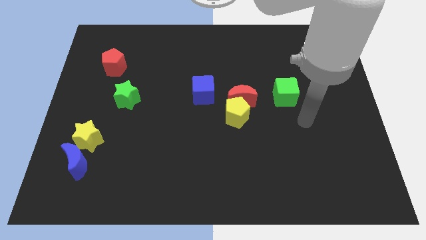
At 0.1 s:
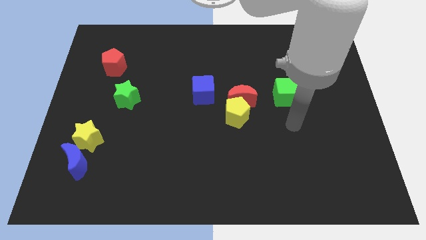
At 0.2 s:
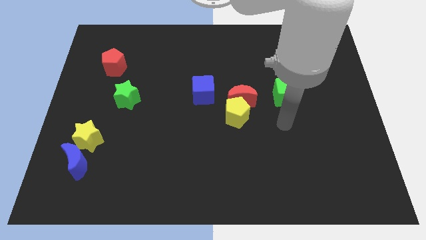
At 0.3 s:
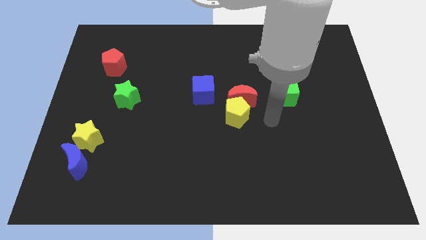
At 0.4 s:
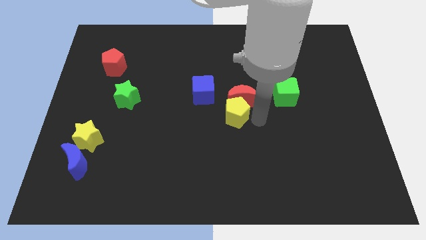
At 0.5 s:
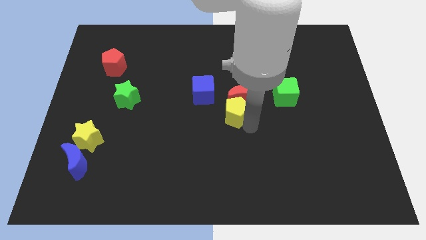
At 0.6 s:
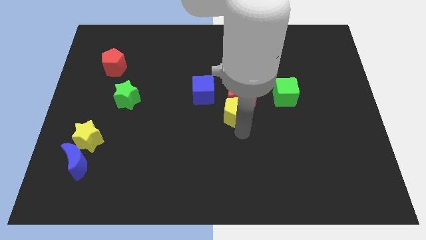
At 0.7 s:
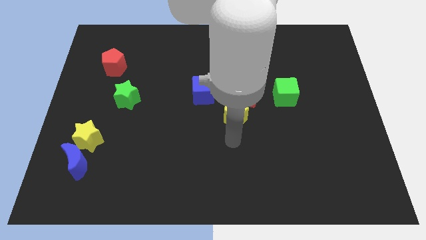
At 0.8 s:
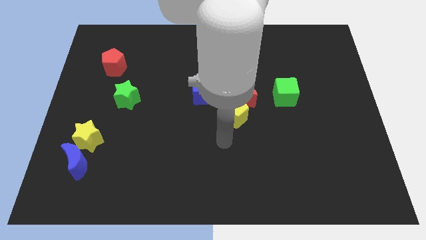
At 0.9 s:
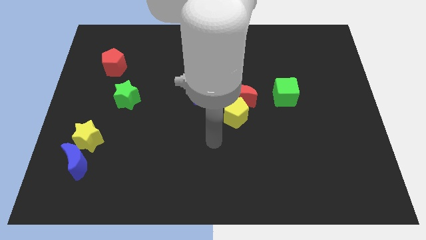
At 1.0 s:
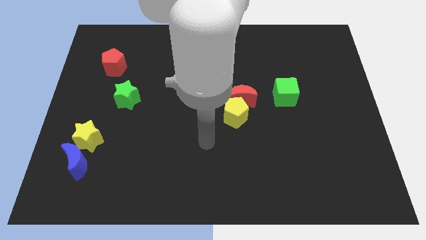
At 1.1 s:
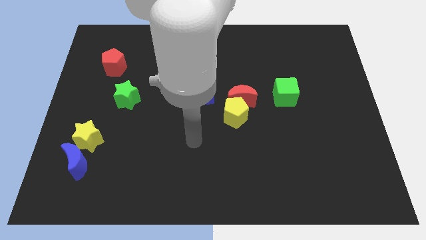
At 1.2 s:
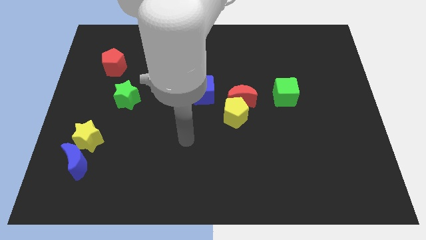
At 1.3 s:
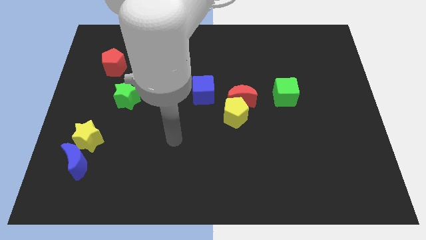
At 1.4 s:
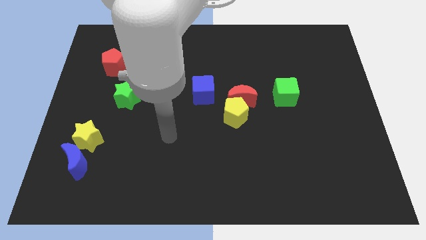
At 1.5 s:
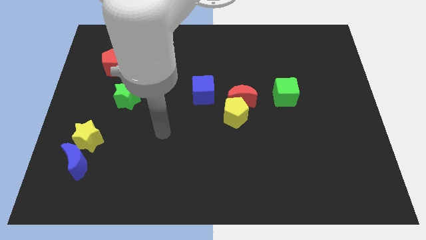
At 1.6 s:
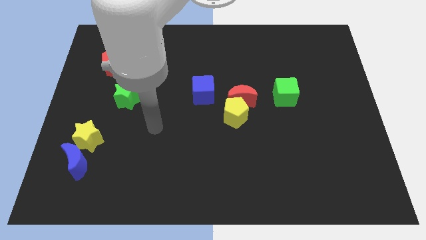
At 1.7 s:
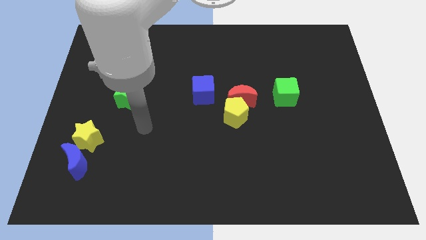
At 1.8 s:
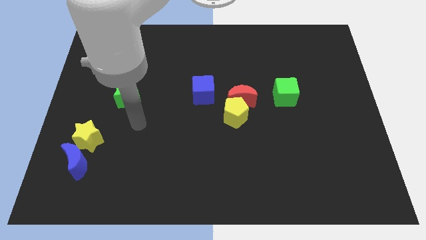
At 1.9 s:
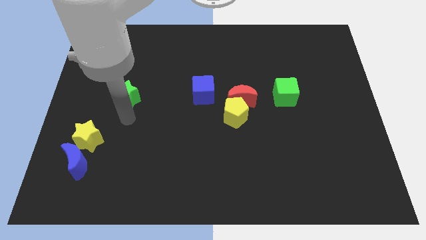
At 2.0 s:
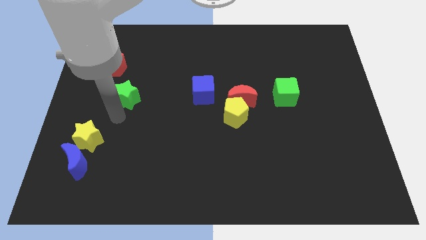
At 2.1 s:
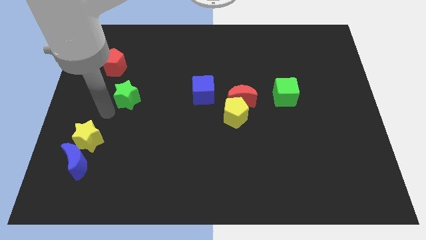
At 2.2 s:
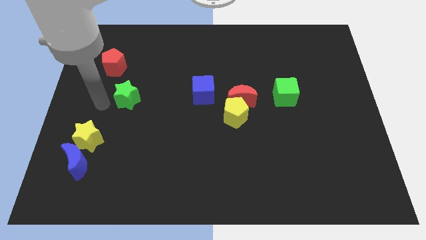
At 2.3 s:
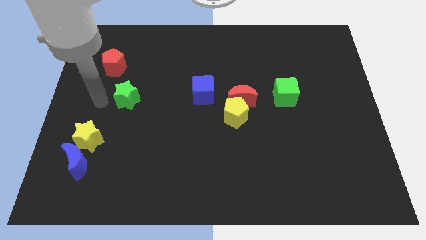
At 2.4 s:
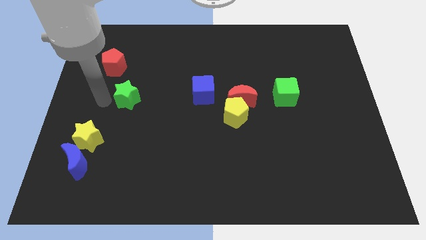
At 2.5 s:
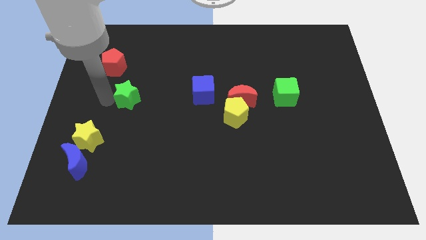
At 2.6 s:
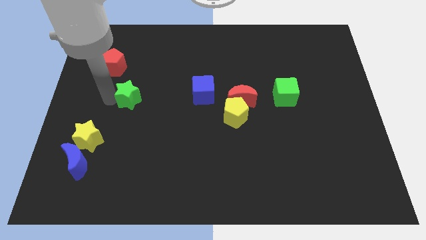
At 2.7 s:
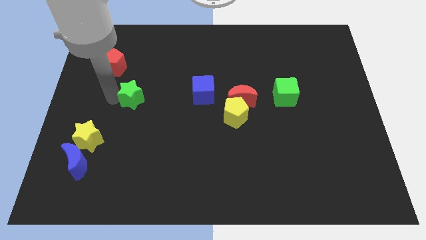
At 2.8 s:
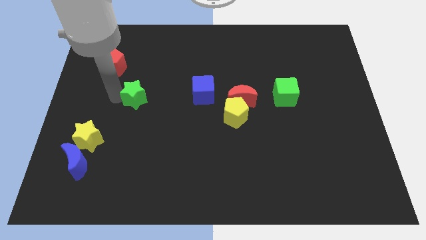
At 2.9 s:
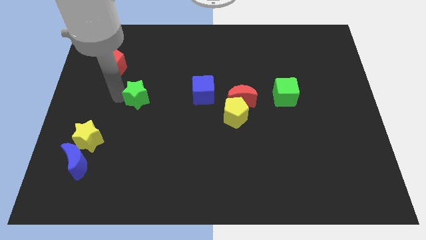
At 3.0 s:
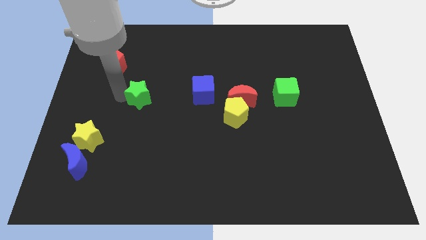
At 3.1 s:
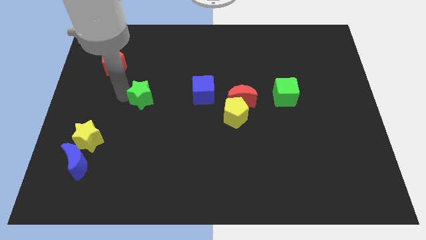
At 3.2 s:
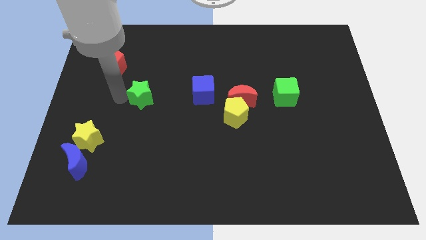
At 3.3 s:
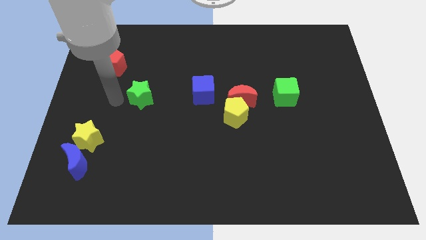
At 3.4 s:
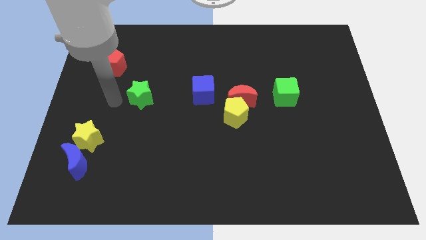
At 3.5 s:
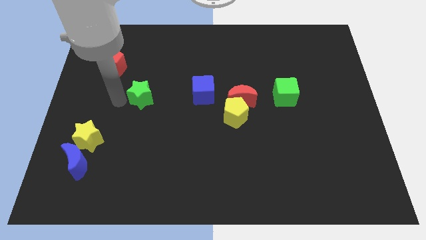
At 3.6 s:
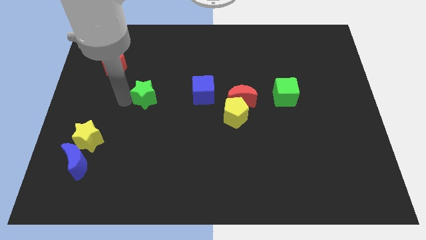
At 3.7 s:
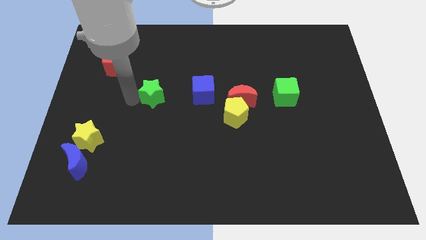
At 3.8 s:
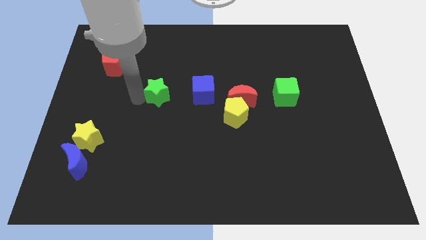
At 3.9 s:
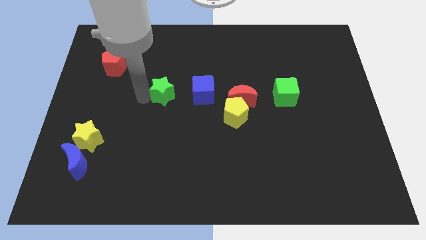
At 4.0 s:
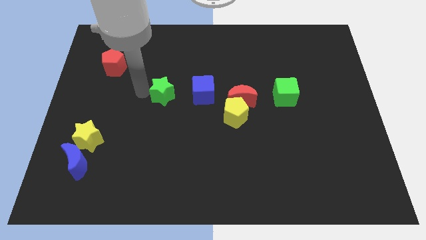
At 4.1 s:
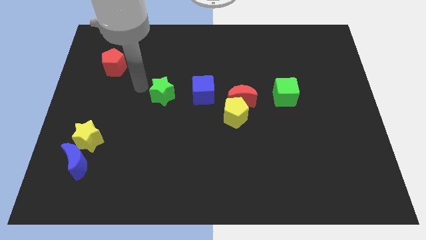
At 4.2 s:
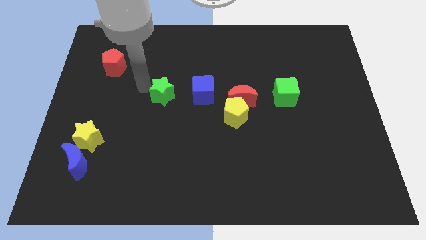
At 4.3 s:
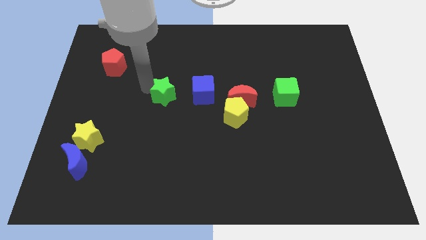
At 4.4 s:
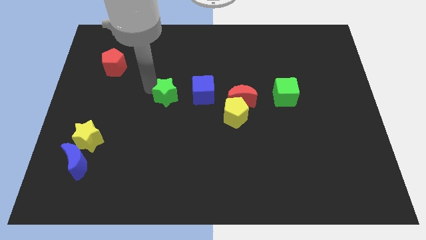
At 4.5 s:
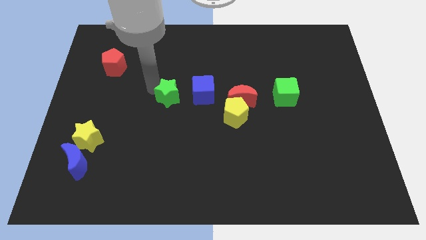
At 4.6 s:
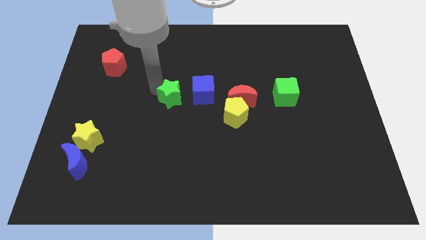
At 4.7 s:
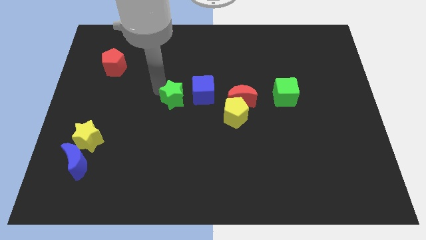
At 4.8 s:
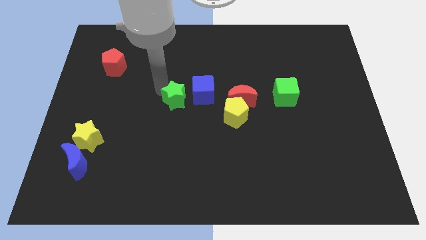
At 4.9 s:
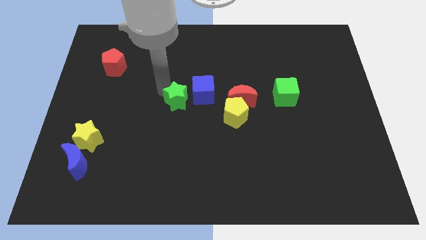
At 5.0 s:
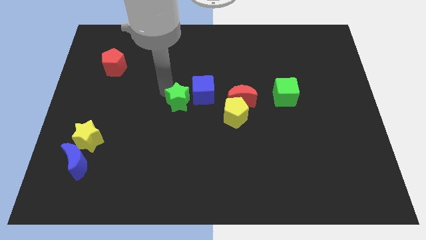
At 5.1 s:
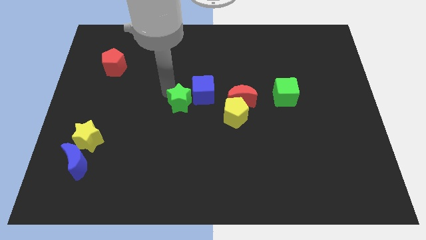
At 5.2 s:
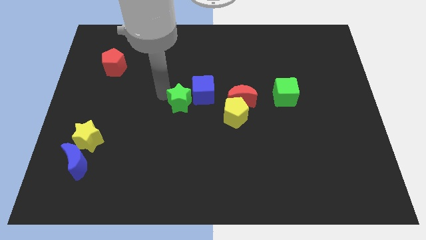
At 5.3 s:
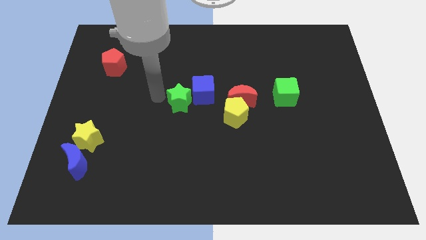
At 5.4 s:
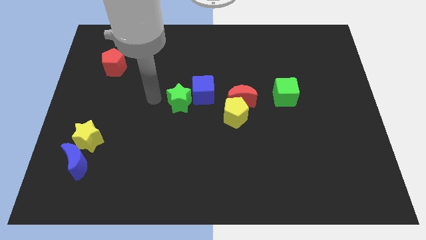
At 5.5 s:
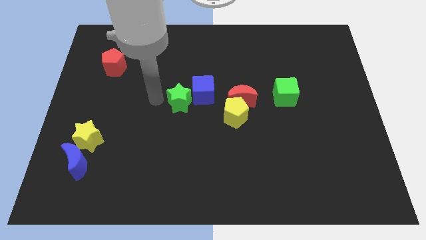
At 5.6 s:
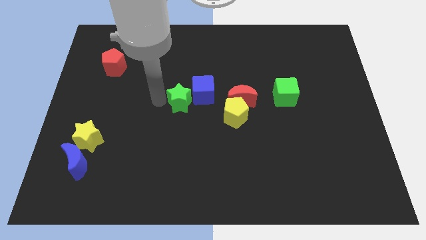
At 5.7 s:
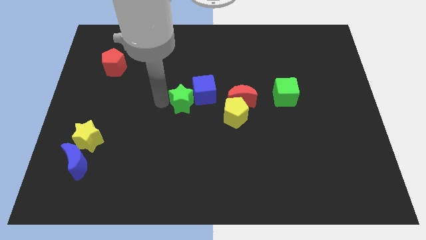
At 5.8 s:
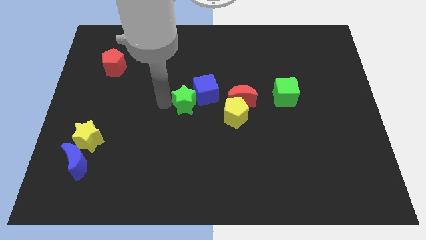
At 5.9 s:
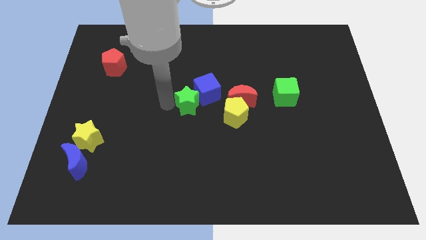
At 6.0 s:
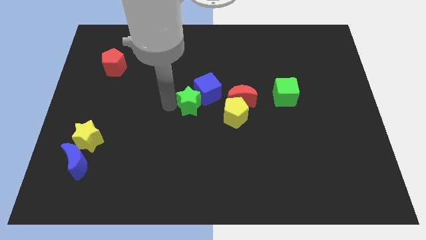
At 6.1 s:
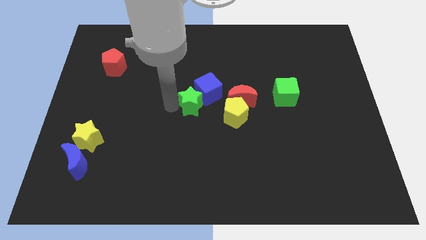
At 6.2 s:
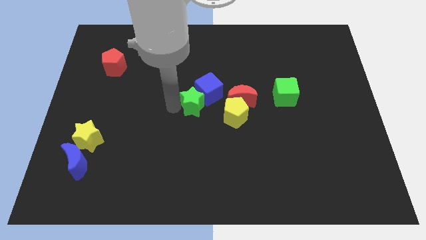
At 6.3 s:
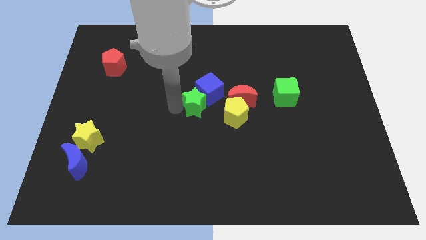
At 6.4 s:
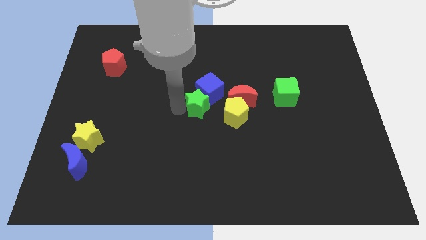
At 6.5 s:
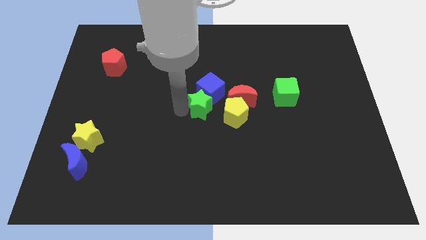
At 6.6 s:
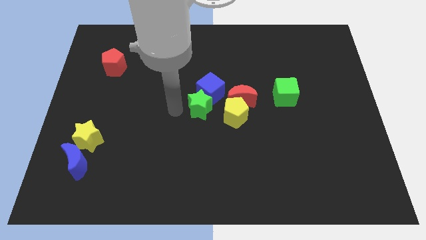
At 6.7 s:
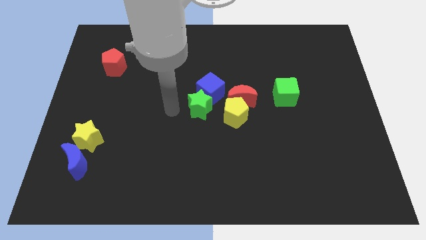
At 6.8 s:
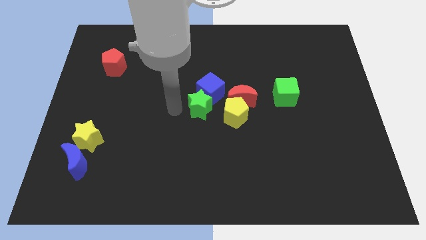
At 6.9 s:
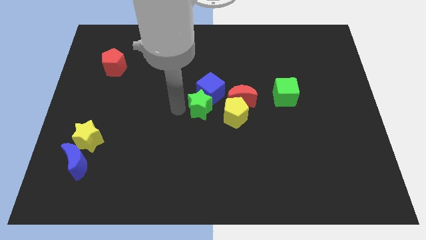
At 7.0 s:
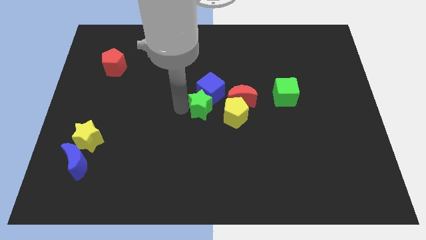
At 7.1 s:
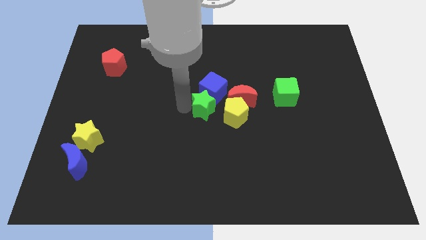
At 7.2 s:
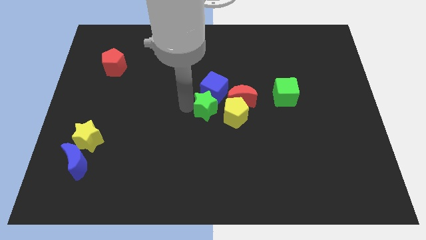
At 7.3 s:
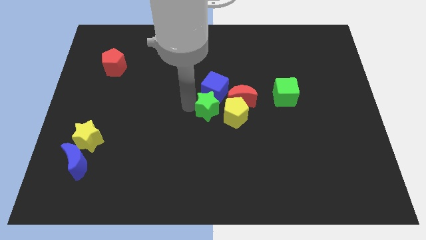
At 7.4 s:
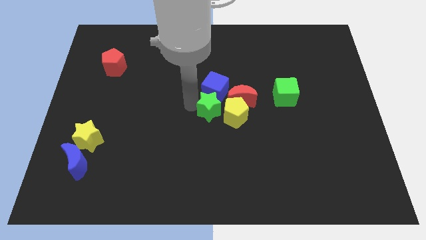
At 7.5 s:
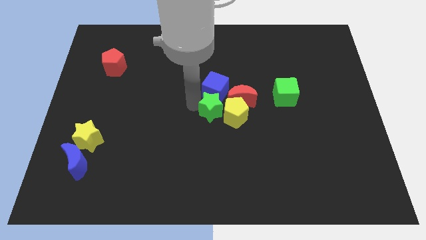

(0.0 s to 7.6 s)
push the green star towards the yellow pentagon

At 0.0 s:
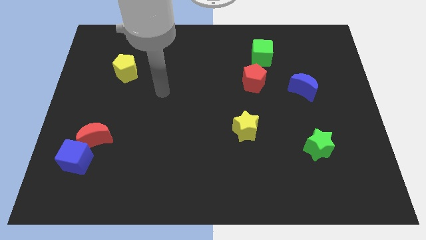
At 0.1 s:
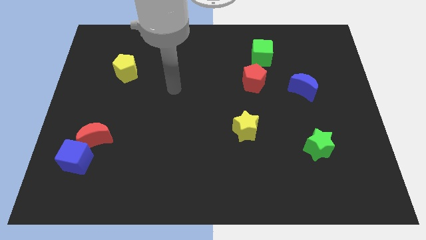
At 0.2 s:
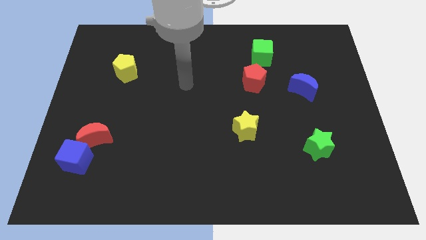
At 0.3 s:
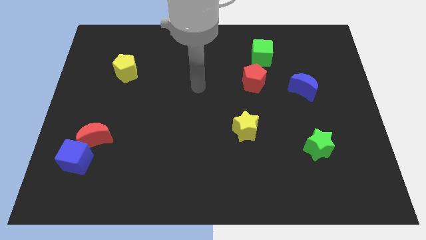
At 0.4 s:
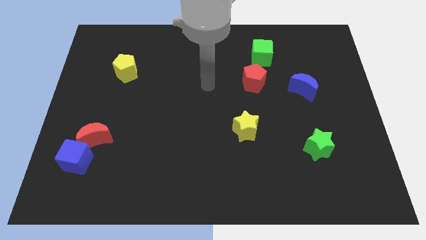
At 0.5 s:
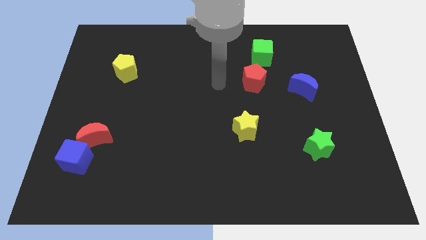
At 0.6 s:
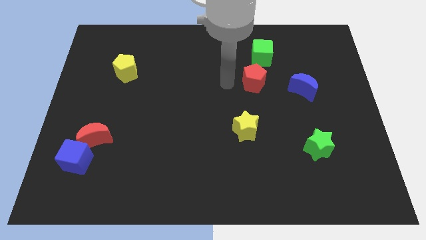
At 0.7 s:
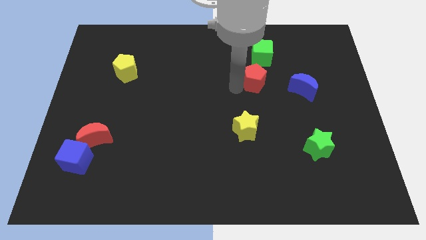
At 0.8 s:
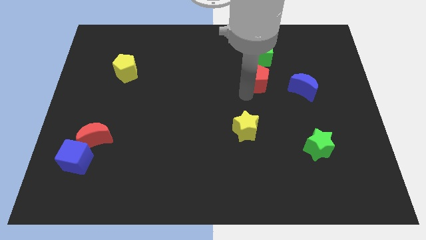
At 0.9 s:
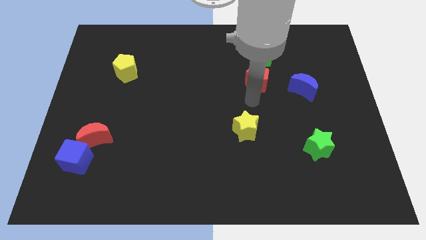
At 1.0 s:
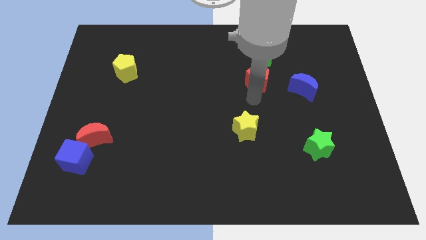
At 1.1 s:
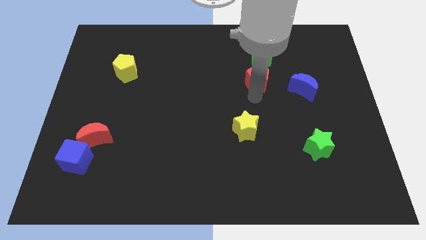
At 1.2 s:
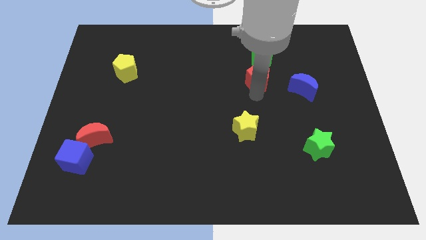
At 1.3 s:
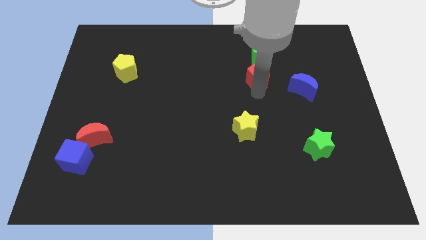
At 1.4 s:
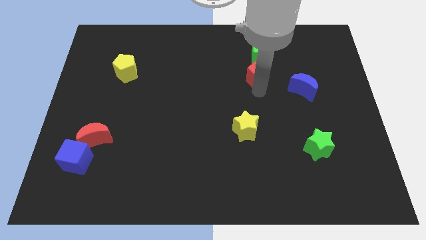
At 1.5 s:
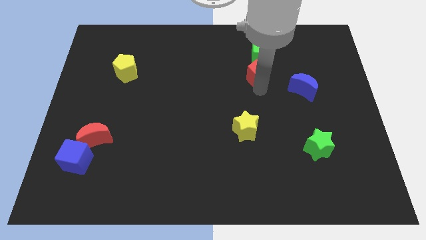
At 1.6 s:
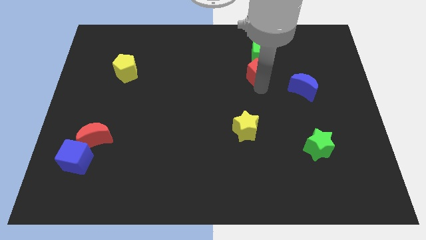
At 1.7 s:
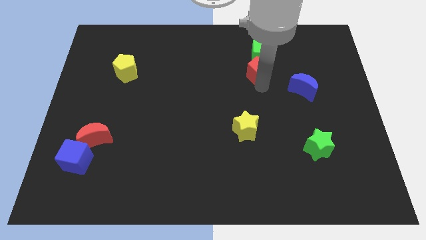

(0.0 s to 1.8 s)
push the red pentagon next to the green cube
